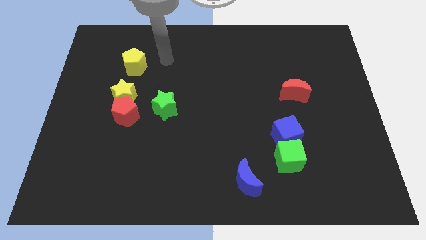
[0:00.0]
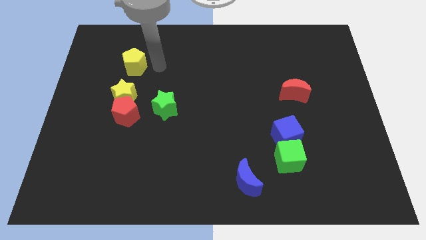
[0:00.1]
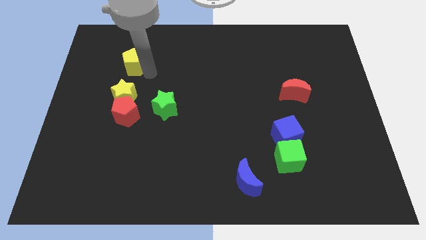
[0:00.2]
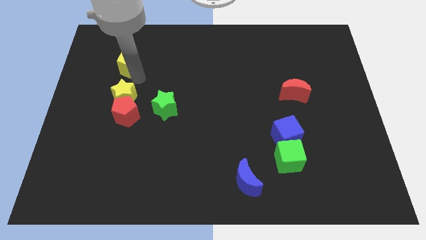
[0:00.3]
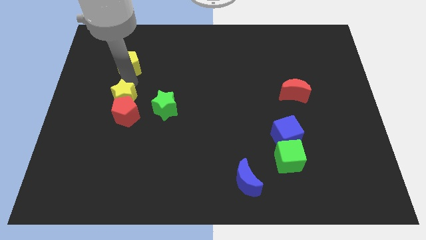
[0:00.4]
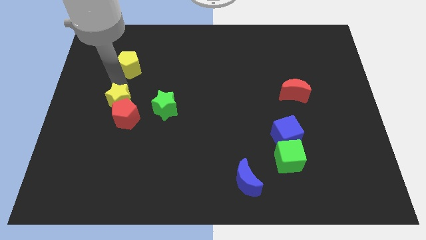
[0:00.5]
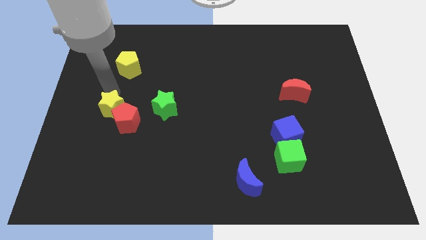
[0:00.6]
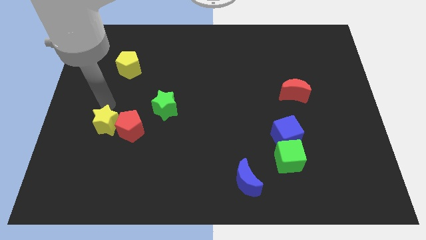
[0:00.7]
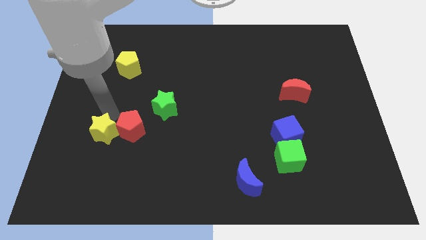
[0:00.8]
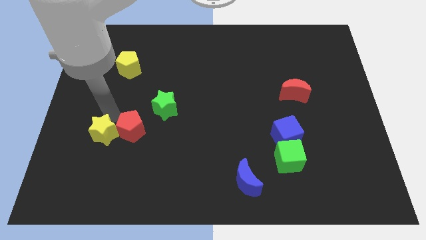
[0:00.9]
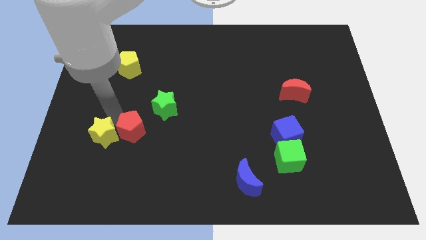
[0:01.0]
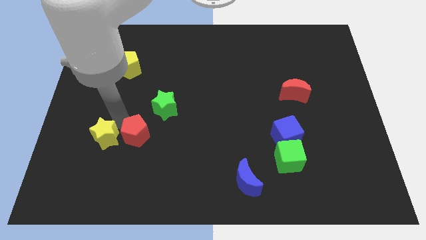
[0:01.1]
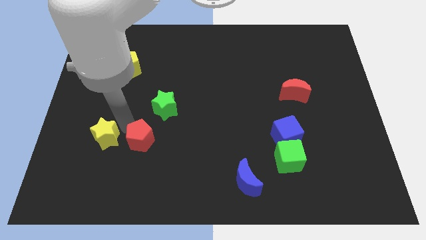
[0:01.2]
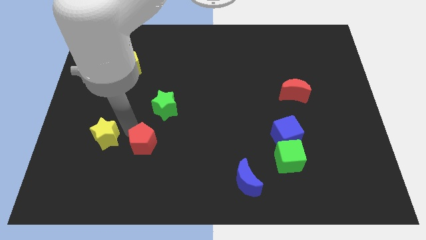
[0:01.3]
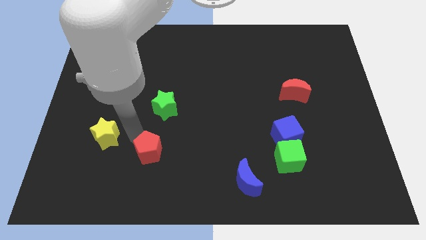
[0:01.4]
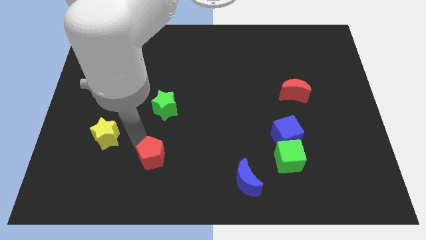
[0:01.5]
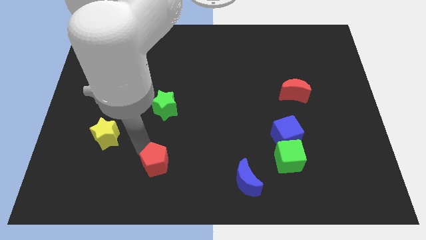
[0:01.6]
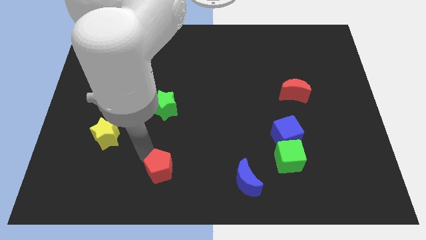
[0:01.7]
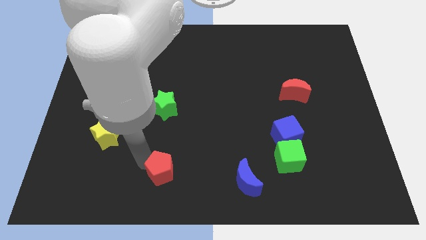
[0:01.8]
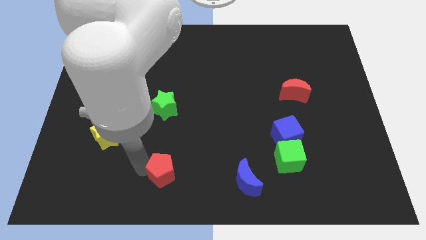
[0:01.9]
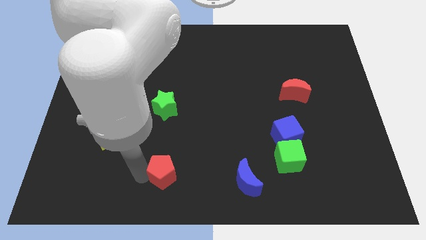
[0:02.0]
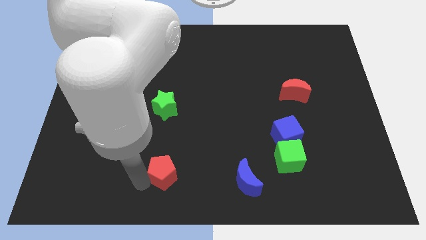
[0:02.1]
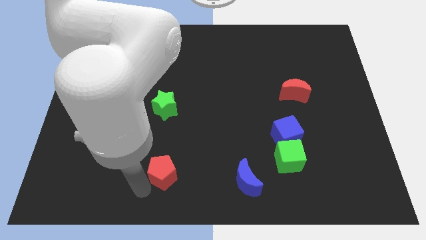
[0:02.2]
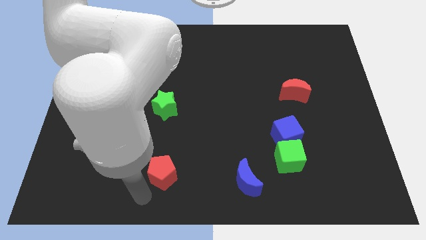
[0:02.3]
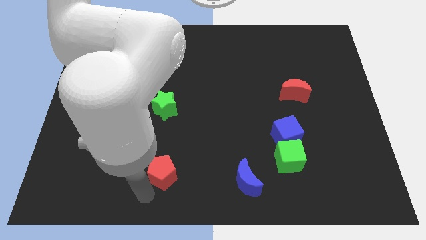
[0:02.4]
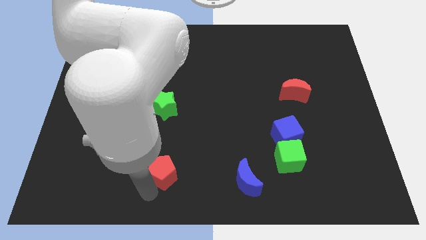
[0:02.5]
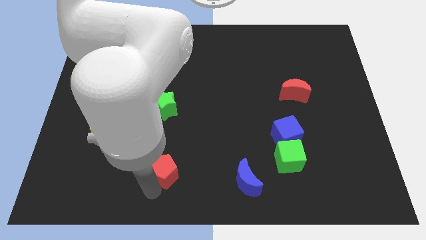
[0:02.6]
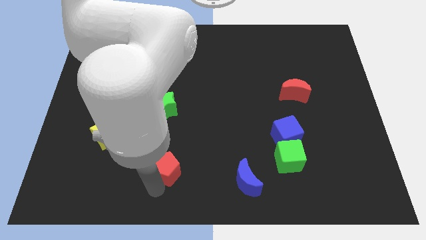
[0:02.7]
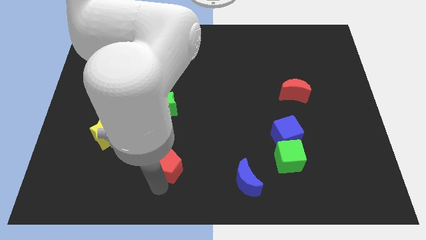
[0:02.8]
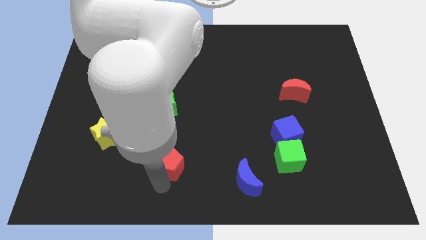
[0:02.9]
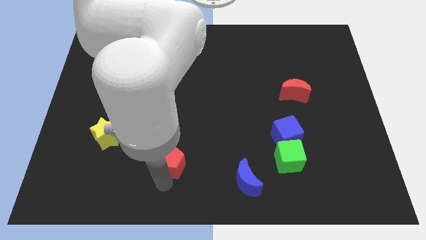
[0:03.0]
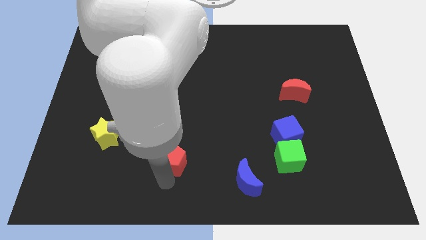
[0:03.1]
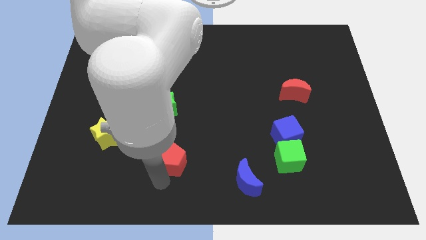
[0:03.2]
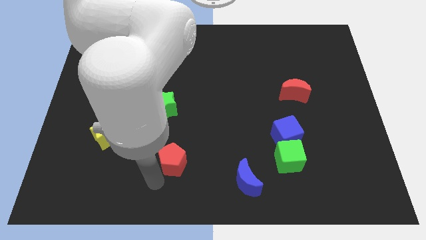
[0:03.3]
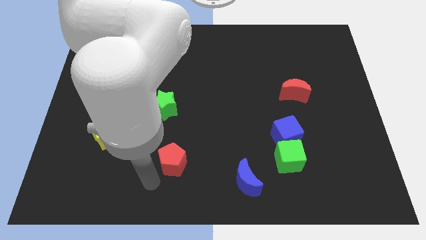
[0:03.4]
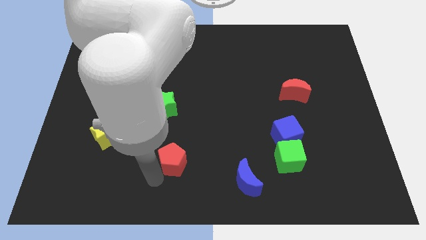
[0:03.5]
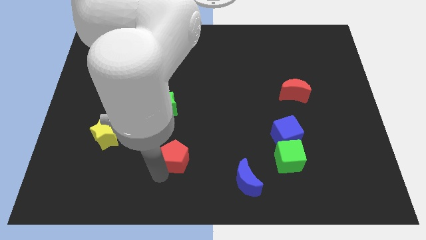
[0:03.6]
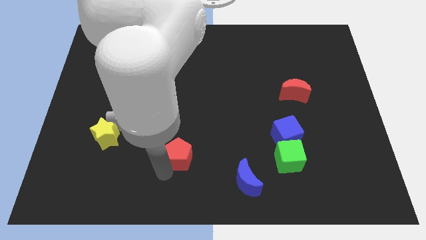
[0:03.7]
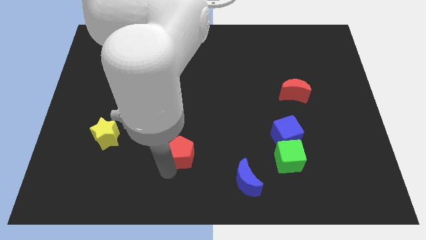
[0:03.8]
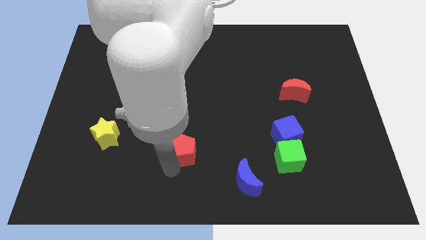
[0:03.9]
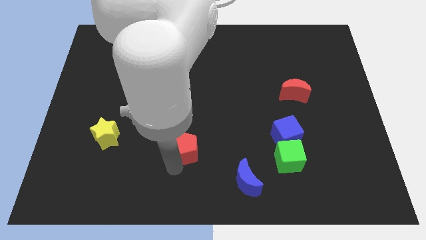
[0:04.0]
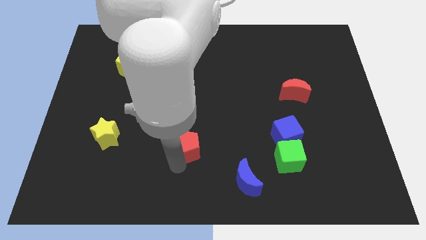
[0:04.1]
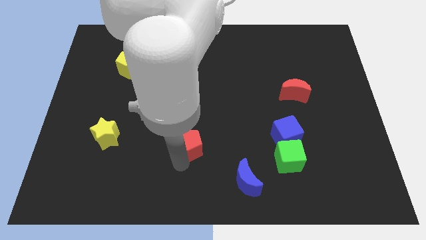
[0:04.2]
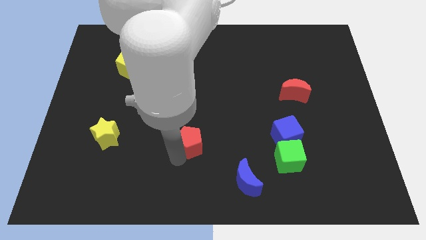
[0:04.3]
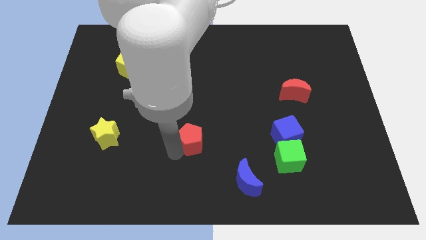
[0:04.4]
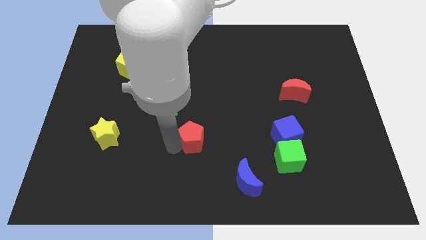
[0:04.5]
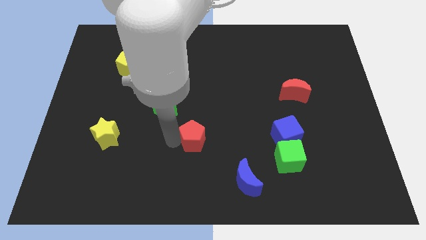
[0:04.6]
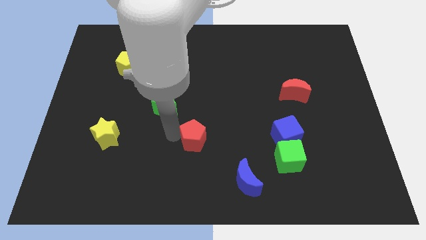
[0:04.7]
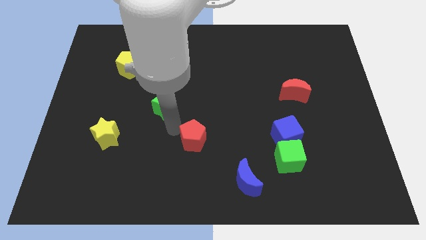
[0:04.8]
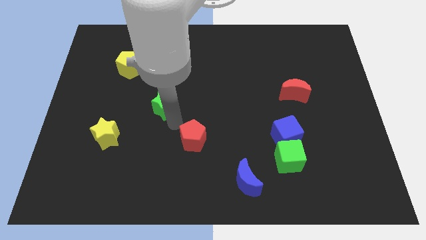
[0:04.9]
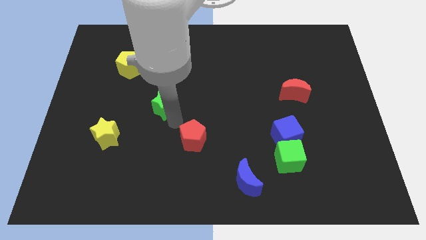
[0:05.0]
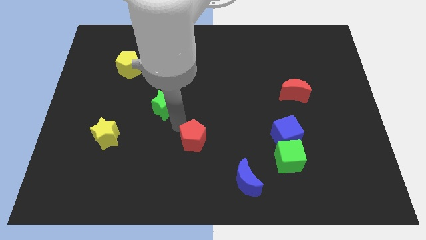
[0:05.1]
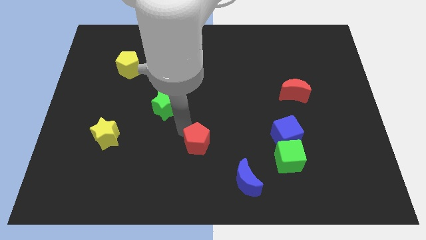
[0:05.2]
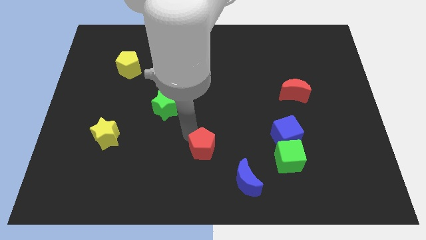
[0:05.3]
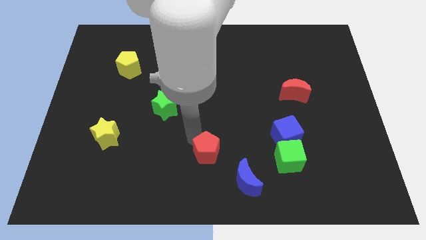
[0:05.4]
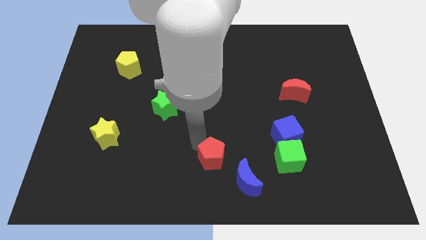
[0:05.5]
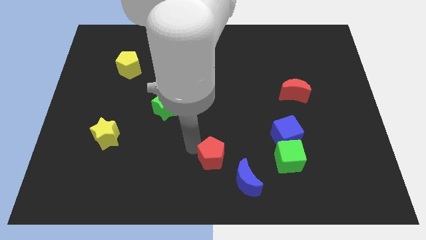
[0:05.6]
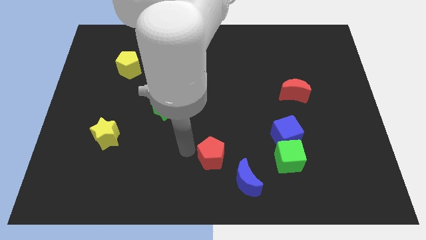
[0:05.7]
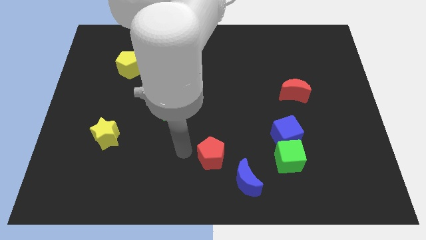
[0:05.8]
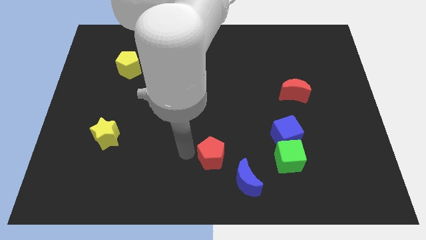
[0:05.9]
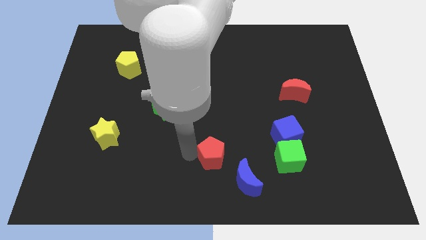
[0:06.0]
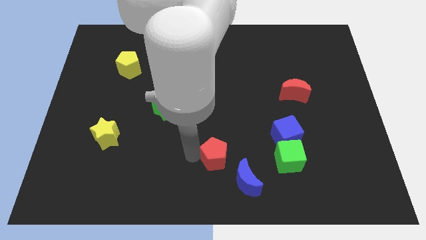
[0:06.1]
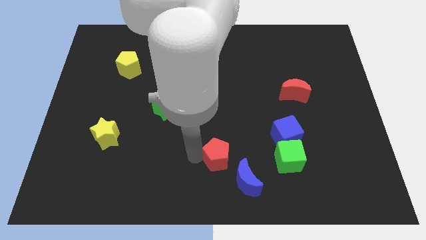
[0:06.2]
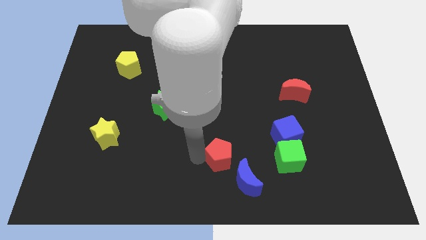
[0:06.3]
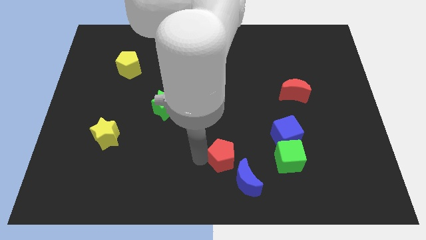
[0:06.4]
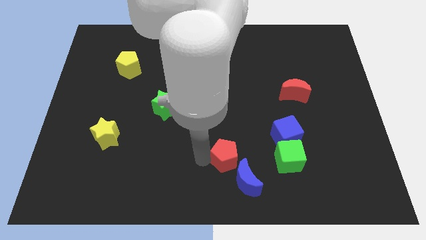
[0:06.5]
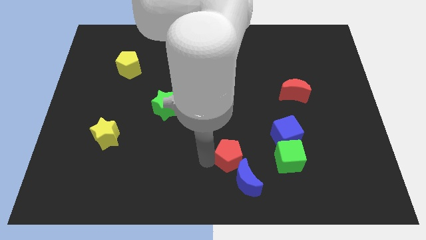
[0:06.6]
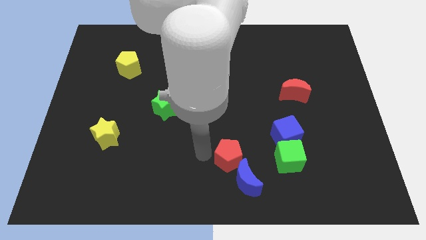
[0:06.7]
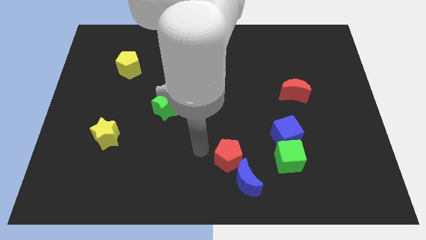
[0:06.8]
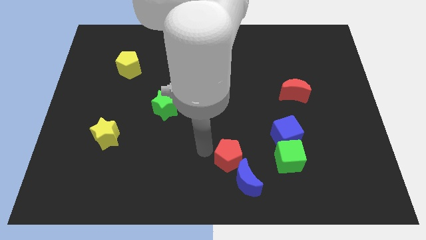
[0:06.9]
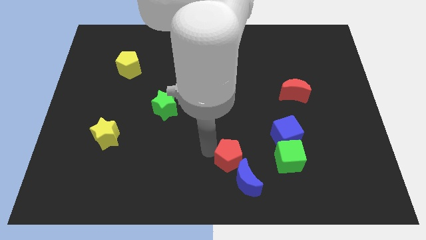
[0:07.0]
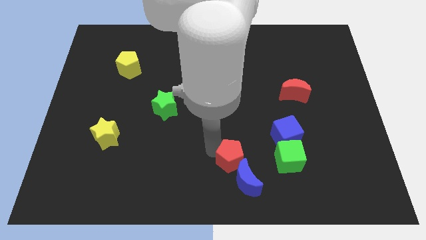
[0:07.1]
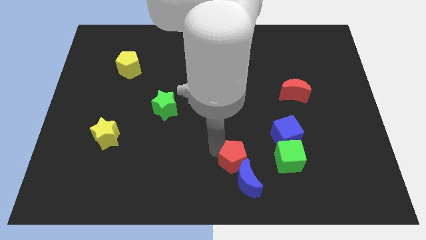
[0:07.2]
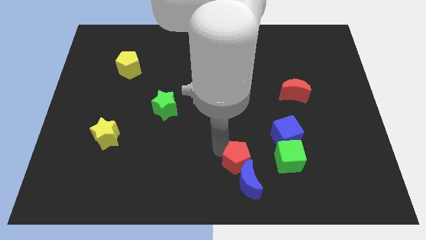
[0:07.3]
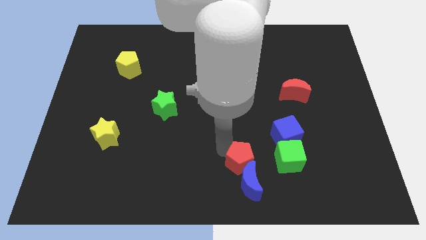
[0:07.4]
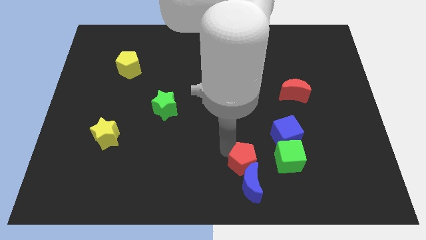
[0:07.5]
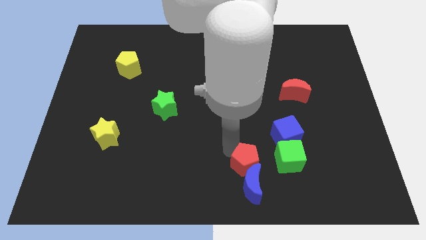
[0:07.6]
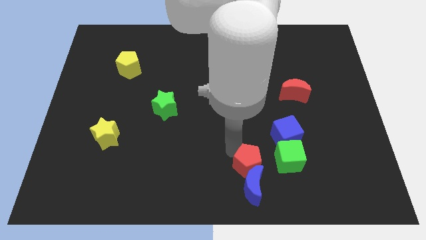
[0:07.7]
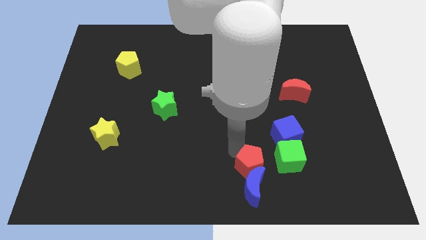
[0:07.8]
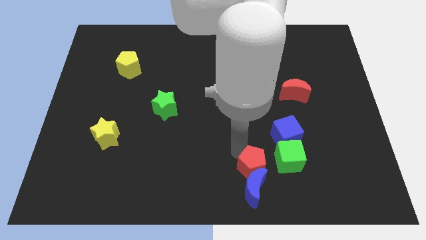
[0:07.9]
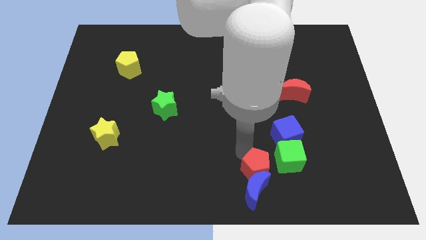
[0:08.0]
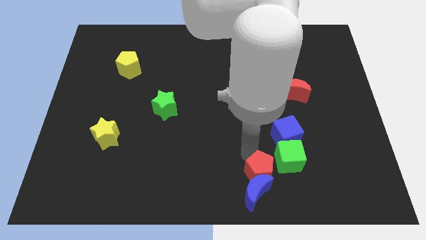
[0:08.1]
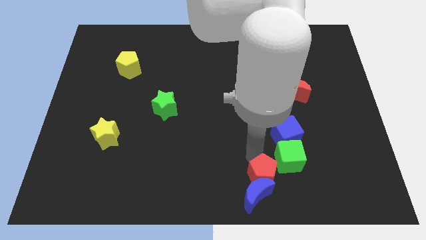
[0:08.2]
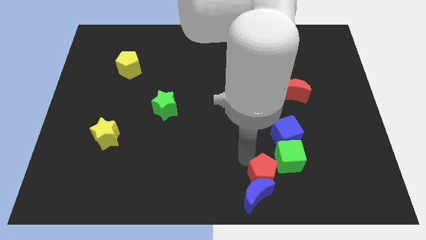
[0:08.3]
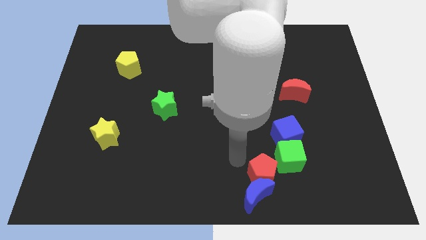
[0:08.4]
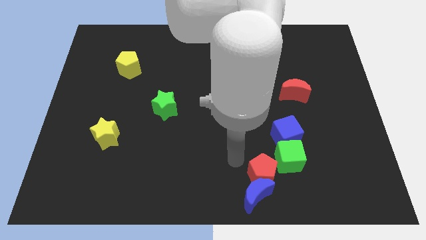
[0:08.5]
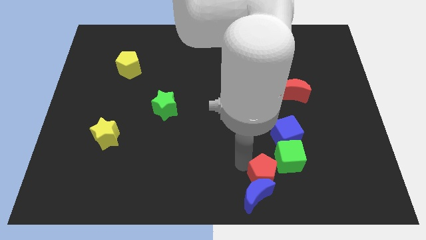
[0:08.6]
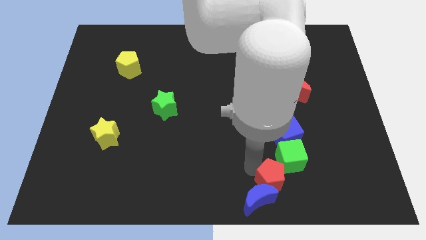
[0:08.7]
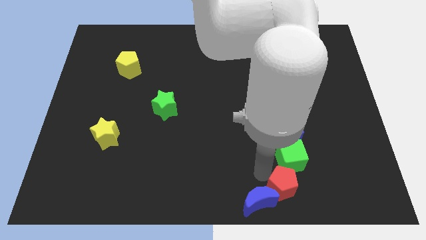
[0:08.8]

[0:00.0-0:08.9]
slide the red pentagon just right of the blue moon
